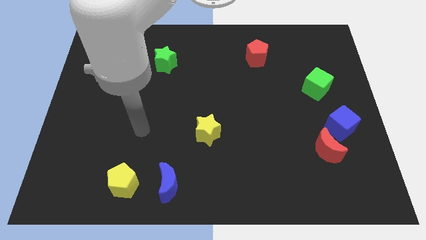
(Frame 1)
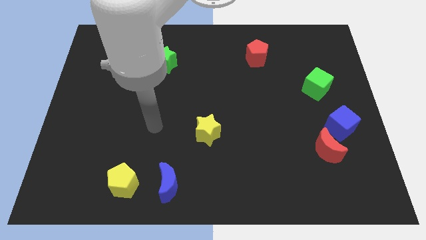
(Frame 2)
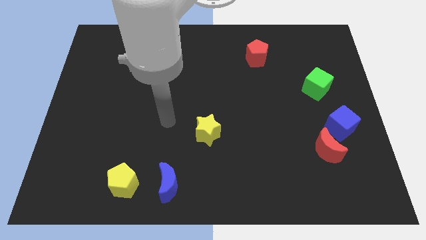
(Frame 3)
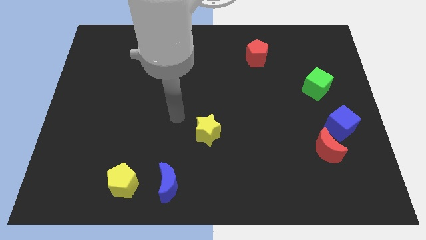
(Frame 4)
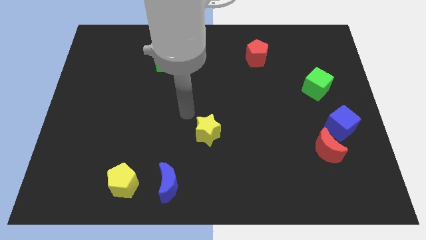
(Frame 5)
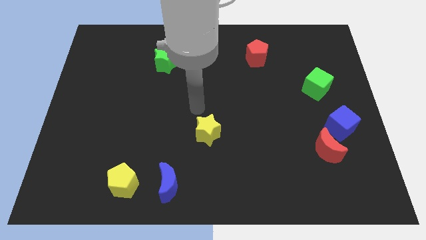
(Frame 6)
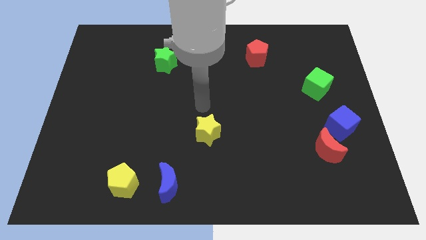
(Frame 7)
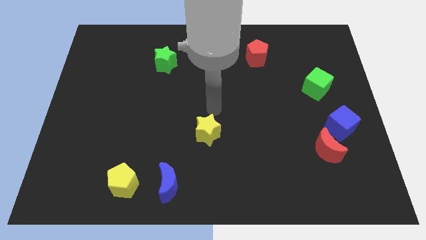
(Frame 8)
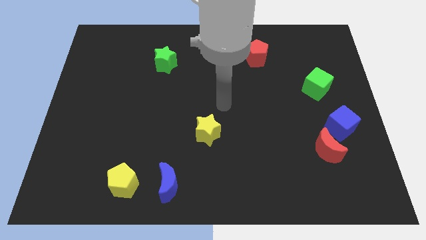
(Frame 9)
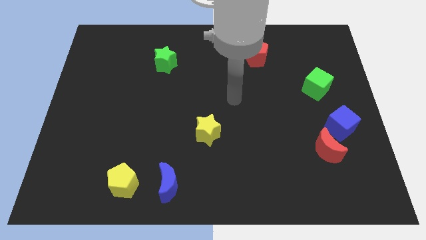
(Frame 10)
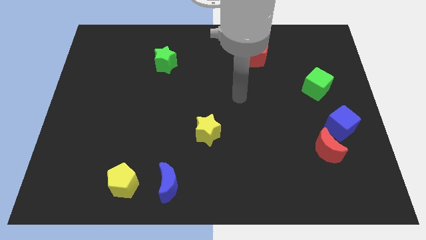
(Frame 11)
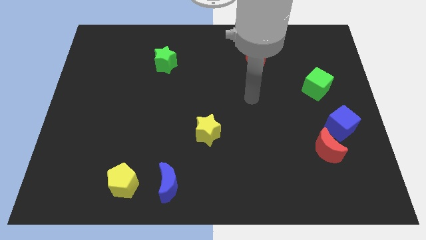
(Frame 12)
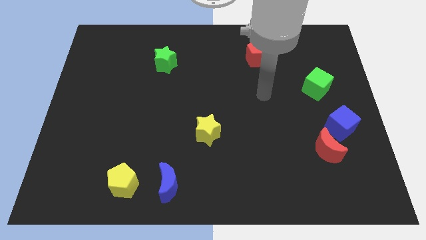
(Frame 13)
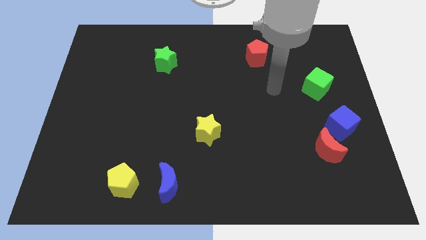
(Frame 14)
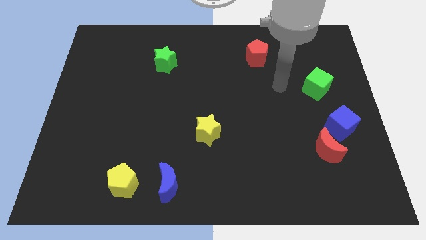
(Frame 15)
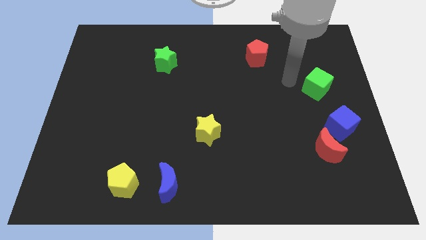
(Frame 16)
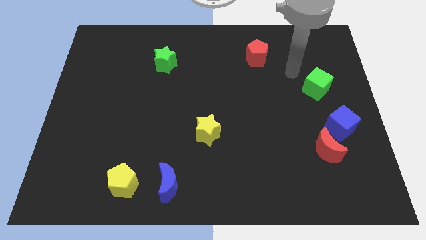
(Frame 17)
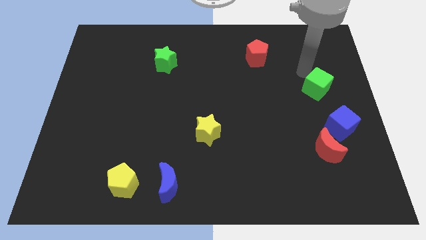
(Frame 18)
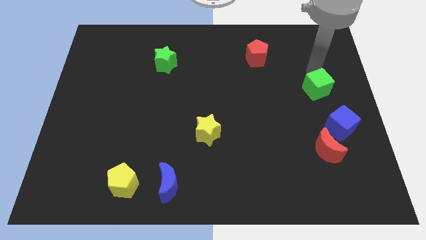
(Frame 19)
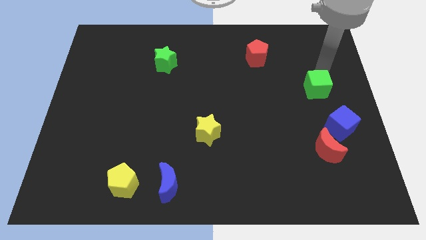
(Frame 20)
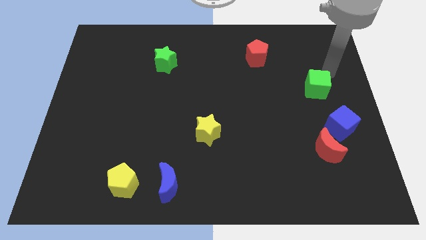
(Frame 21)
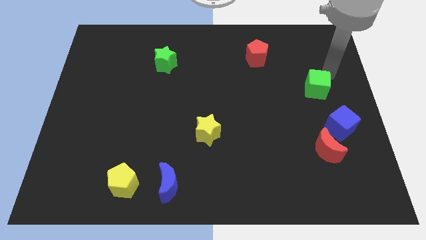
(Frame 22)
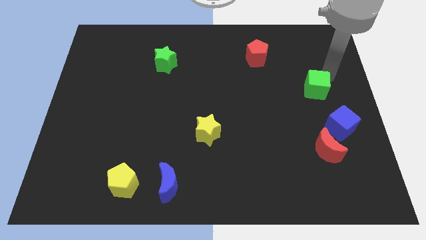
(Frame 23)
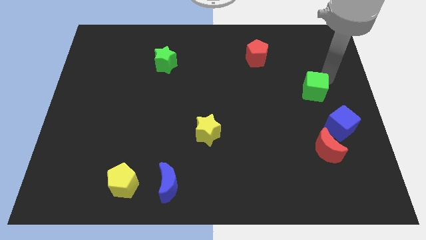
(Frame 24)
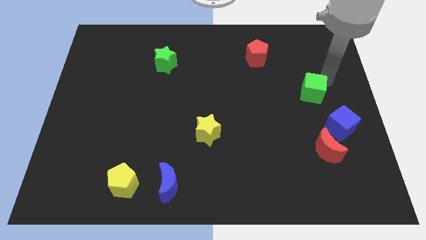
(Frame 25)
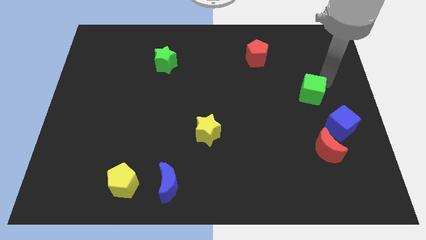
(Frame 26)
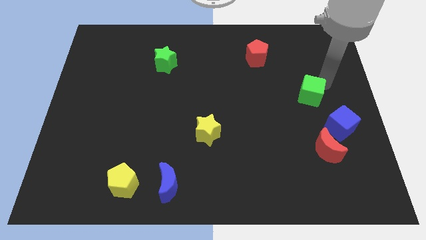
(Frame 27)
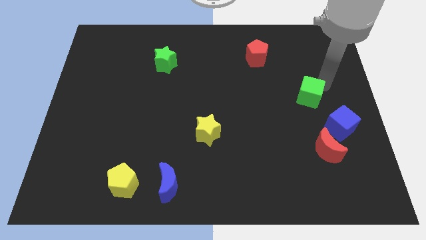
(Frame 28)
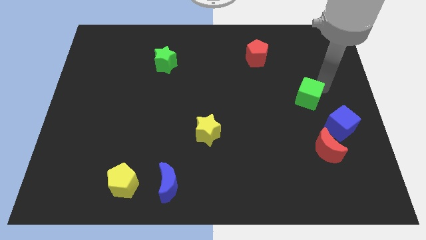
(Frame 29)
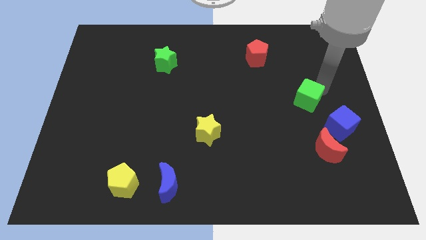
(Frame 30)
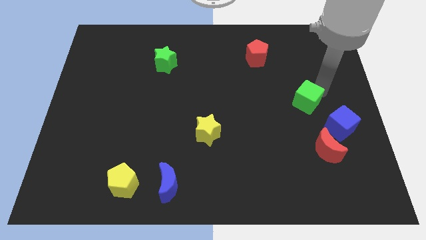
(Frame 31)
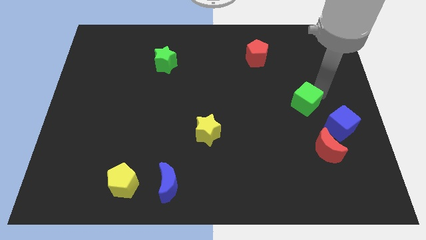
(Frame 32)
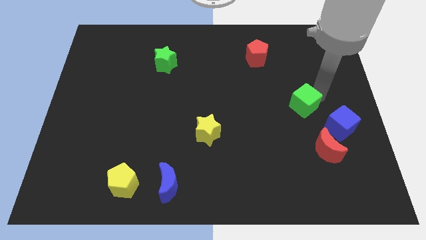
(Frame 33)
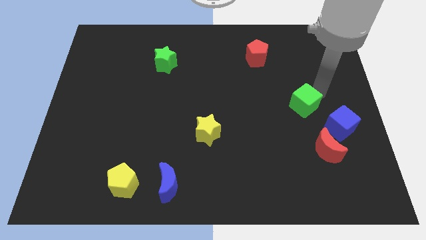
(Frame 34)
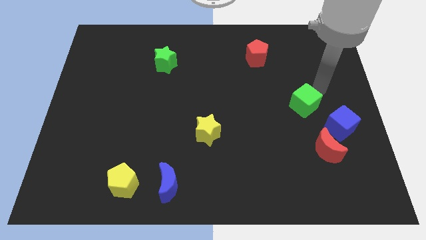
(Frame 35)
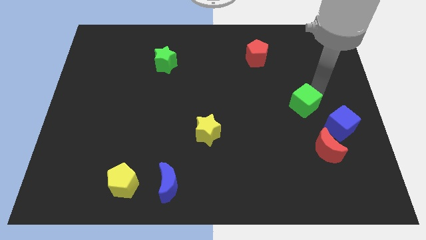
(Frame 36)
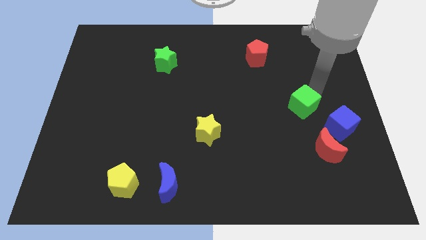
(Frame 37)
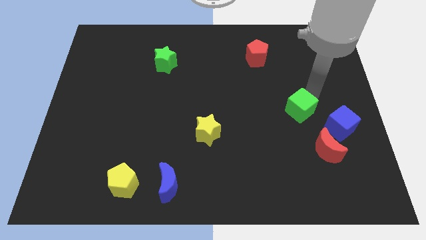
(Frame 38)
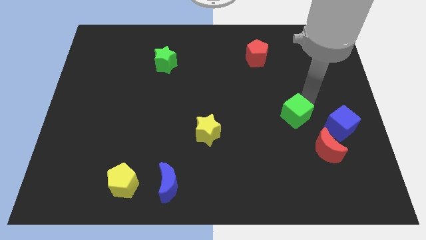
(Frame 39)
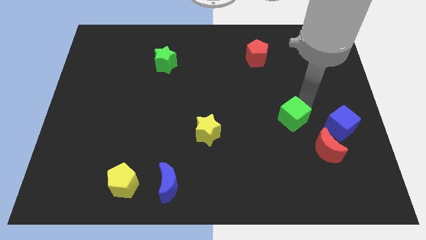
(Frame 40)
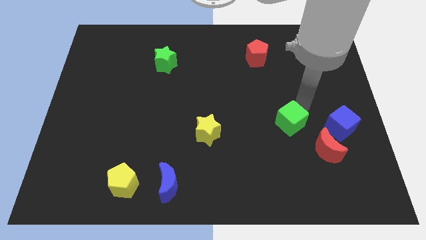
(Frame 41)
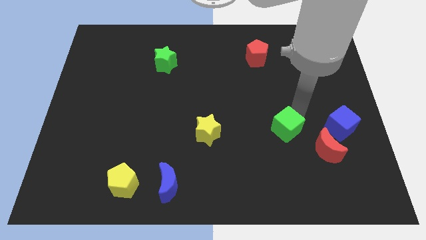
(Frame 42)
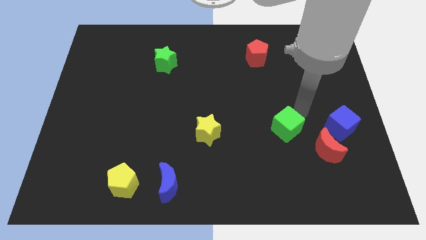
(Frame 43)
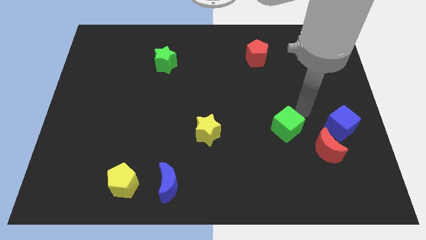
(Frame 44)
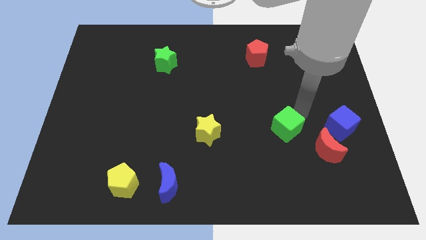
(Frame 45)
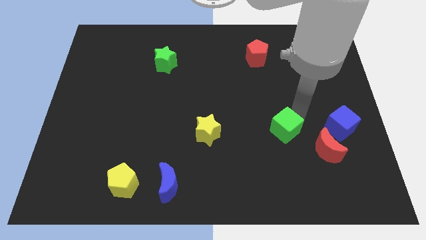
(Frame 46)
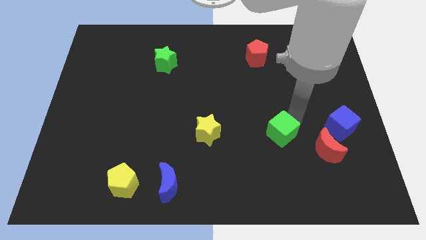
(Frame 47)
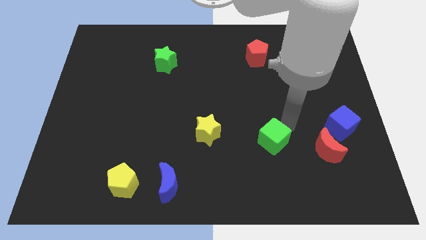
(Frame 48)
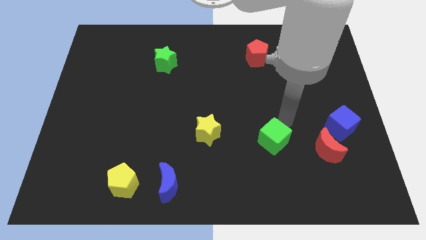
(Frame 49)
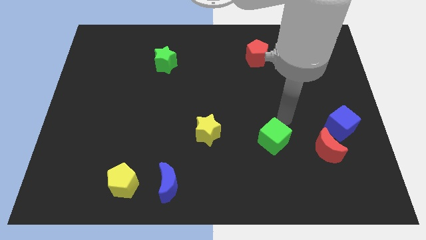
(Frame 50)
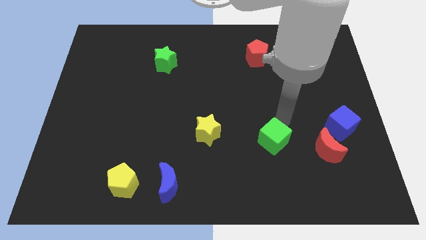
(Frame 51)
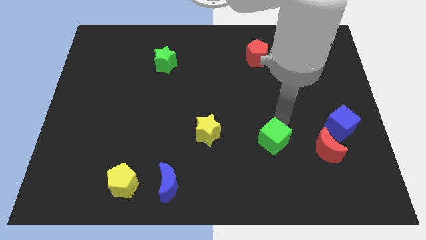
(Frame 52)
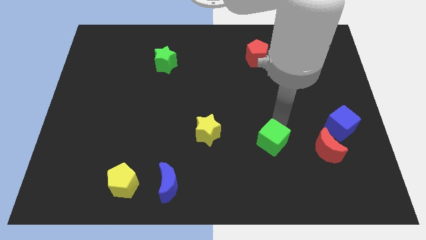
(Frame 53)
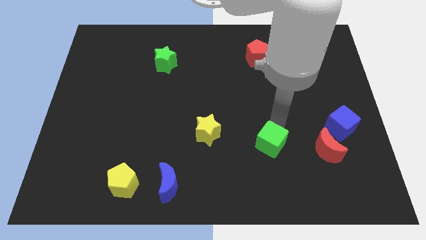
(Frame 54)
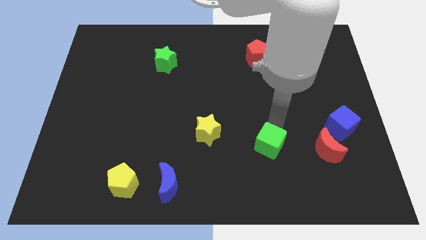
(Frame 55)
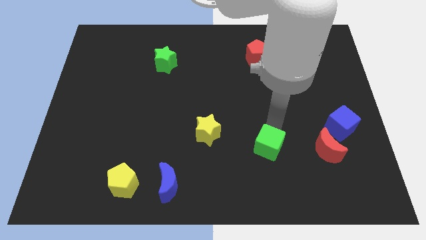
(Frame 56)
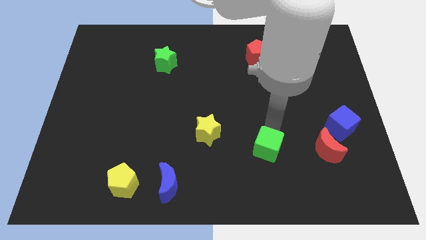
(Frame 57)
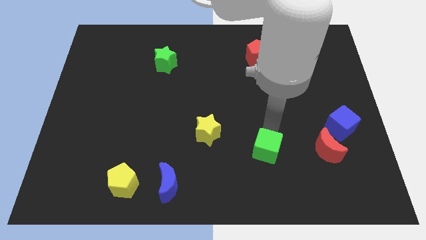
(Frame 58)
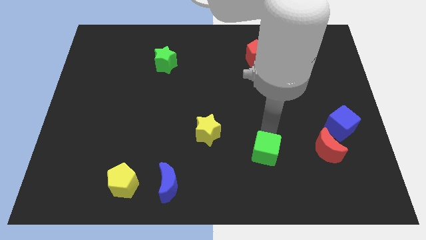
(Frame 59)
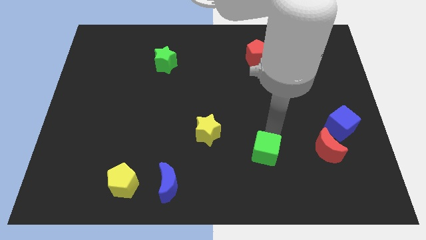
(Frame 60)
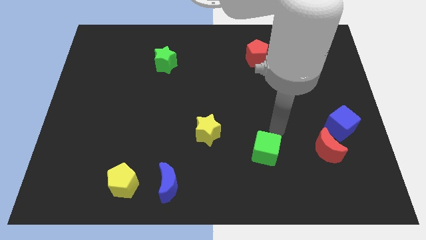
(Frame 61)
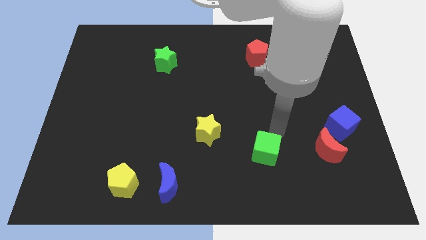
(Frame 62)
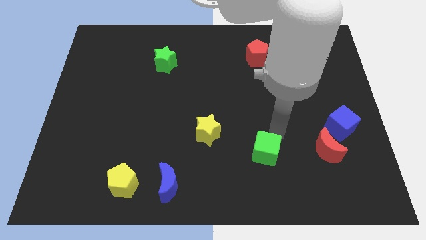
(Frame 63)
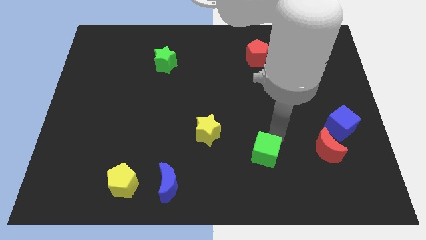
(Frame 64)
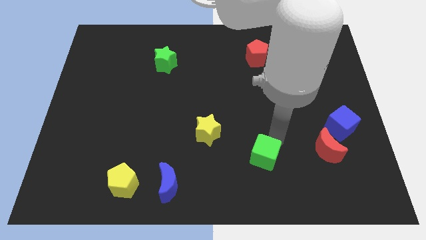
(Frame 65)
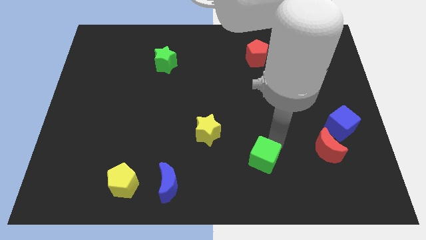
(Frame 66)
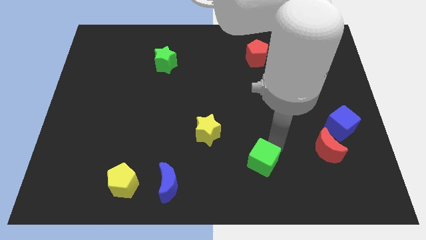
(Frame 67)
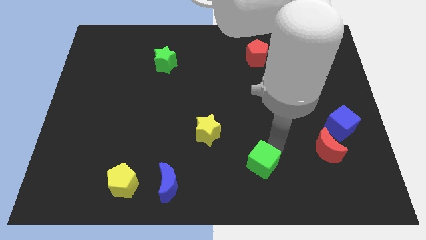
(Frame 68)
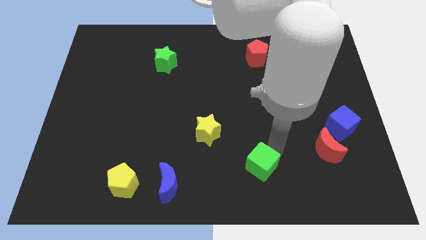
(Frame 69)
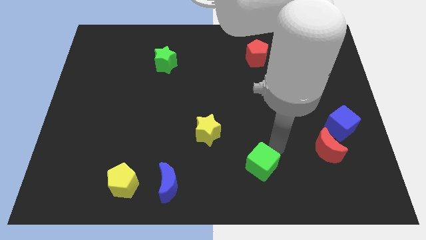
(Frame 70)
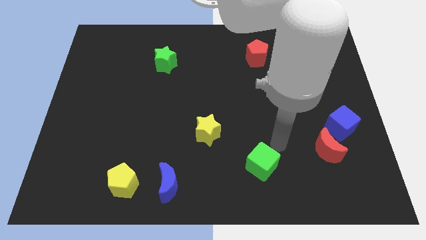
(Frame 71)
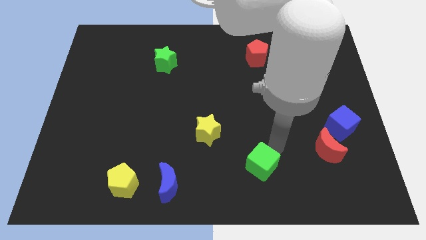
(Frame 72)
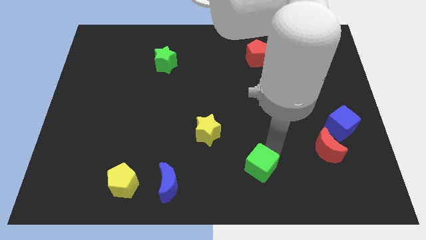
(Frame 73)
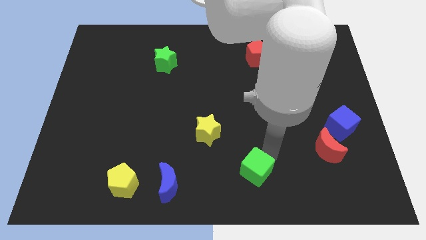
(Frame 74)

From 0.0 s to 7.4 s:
push the green cube to the bottom side

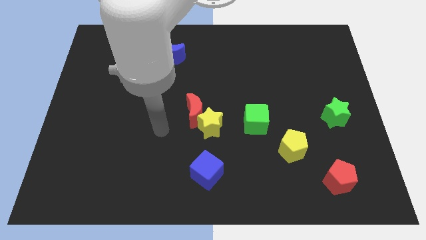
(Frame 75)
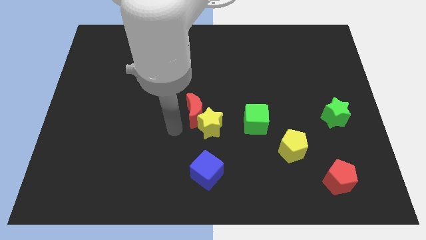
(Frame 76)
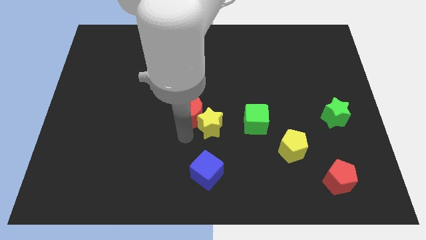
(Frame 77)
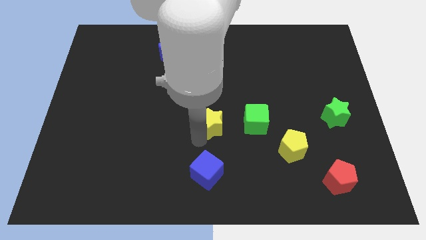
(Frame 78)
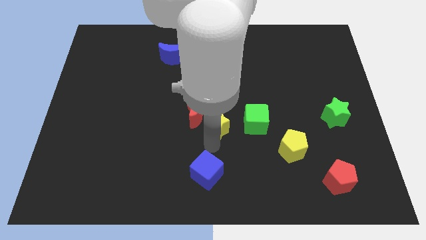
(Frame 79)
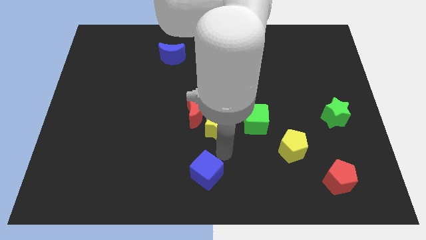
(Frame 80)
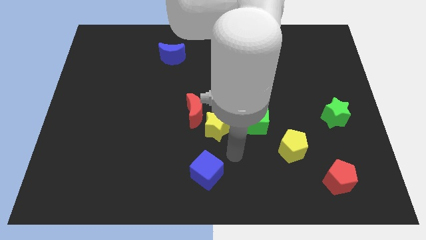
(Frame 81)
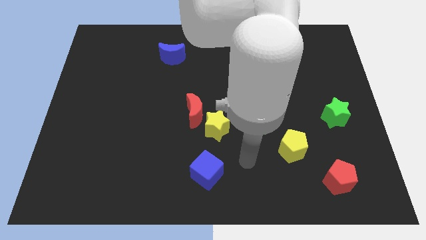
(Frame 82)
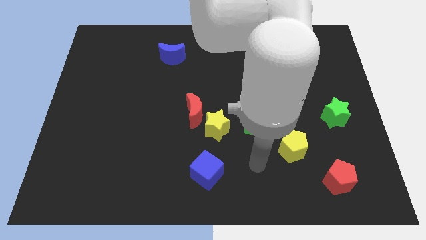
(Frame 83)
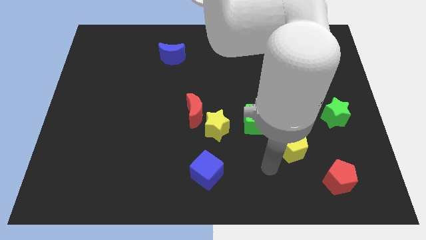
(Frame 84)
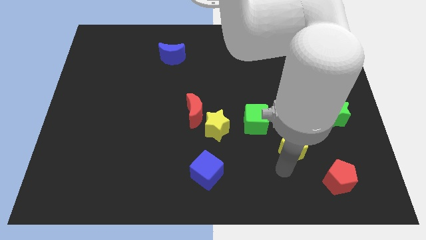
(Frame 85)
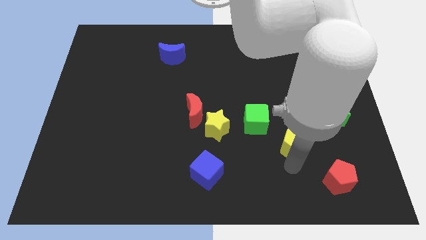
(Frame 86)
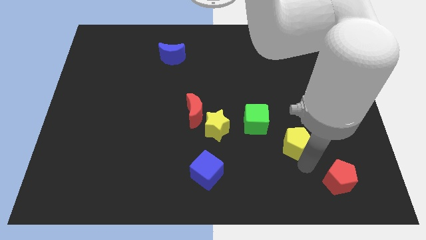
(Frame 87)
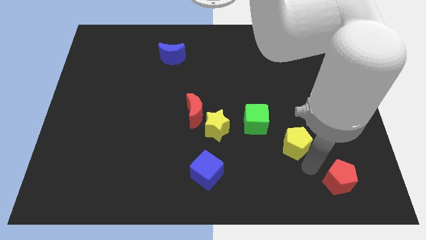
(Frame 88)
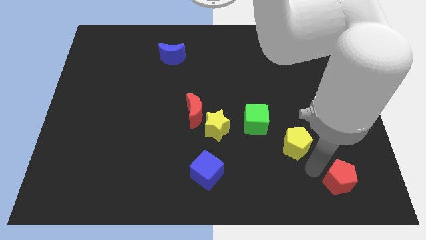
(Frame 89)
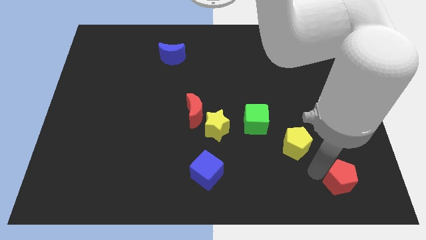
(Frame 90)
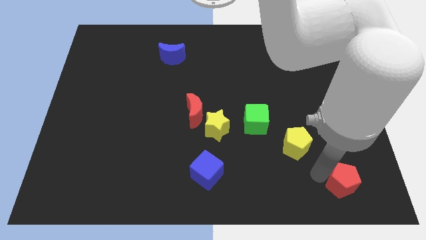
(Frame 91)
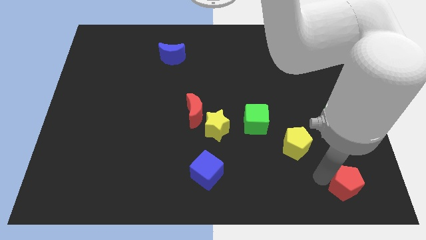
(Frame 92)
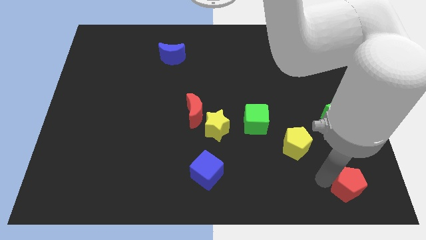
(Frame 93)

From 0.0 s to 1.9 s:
move the red pentagon to the bottom right
